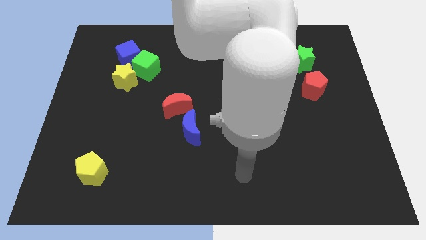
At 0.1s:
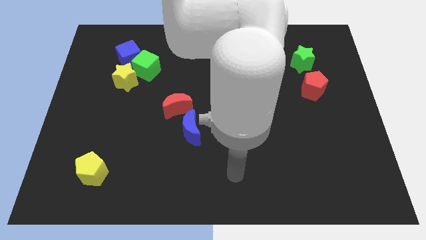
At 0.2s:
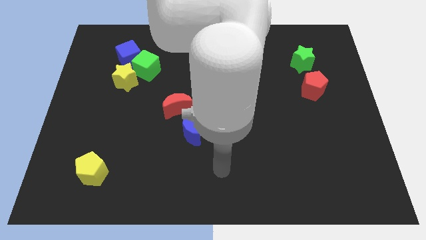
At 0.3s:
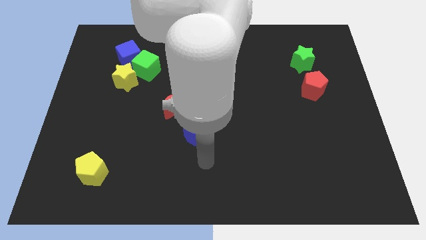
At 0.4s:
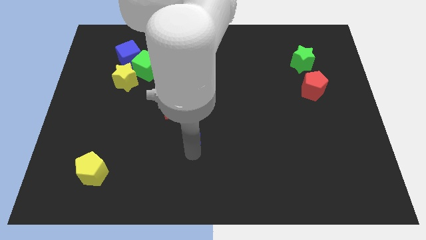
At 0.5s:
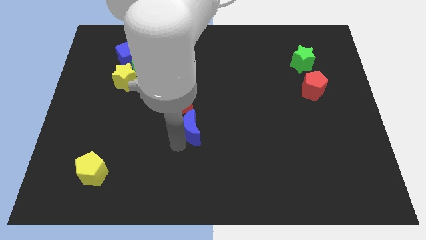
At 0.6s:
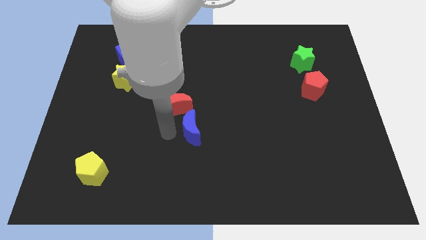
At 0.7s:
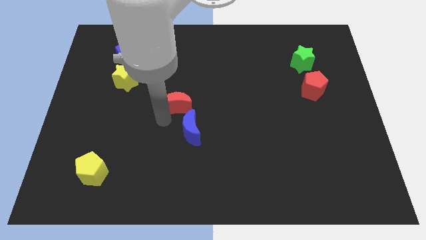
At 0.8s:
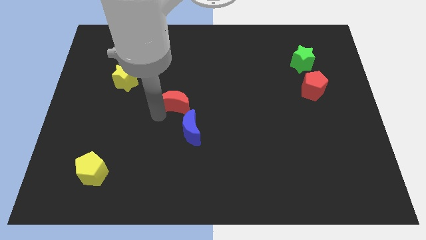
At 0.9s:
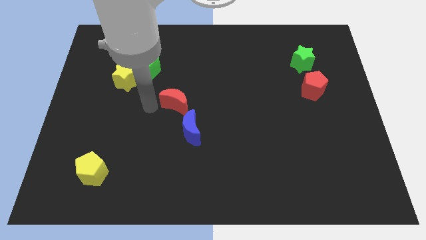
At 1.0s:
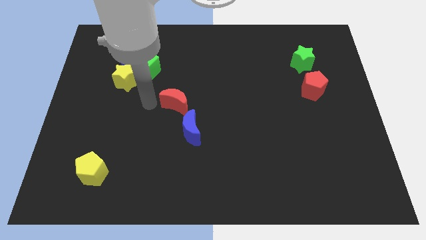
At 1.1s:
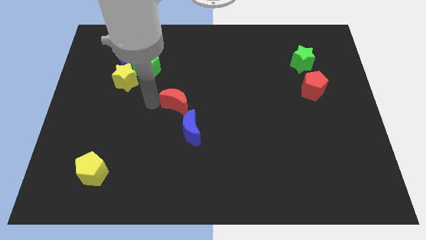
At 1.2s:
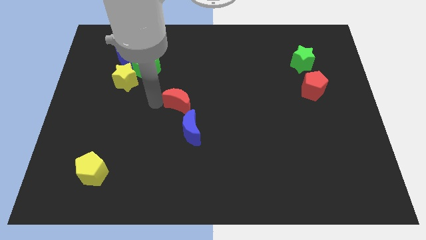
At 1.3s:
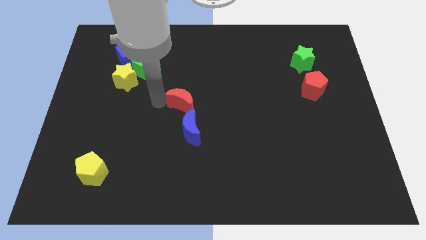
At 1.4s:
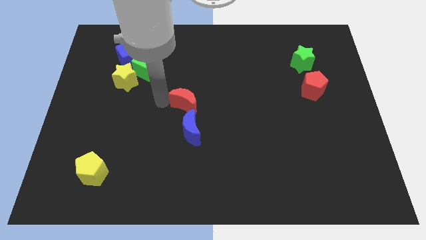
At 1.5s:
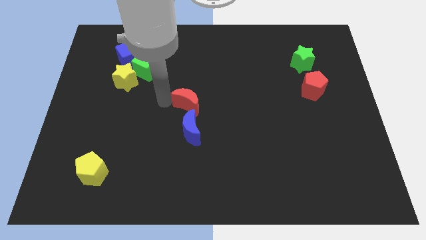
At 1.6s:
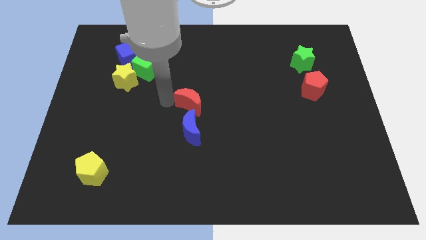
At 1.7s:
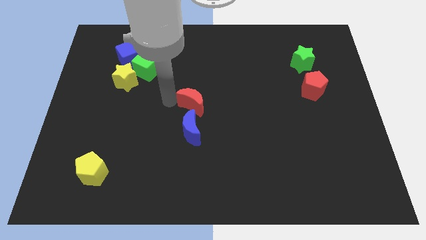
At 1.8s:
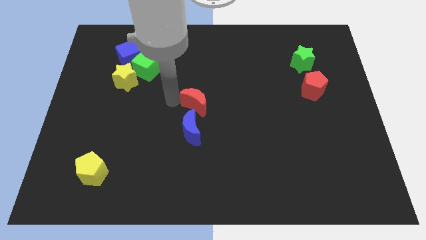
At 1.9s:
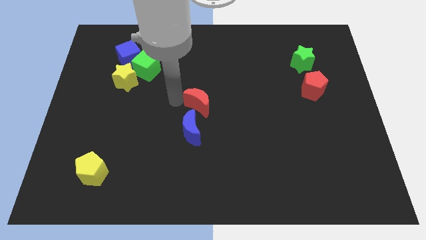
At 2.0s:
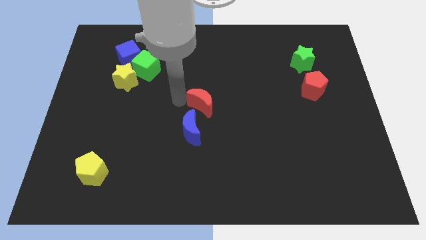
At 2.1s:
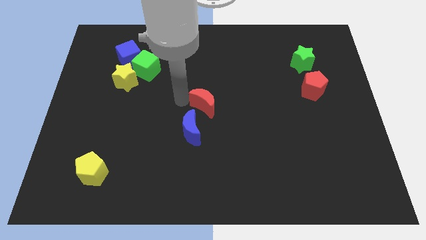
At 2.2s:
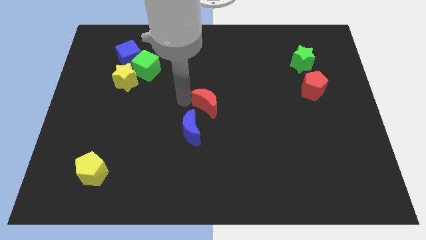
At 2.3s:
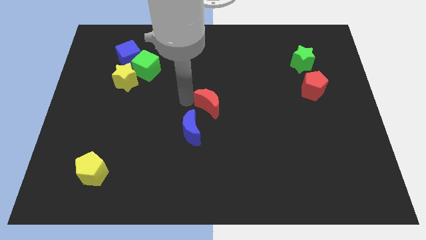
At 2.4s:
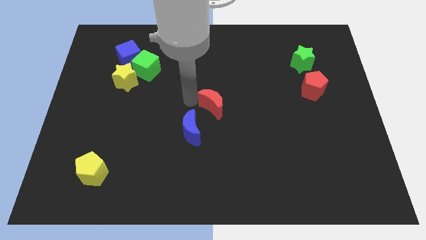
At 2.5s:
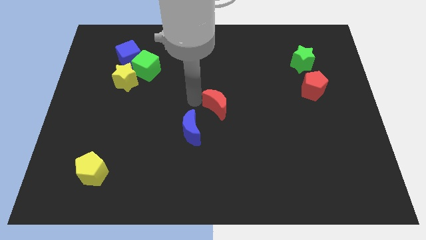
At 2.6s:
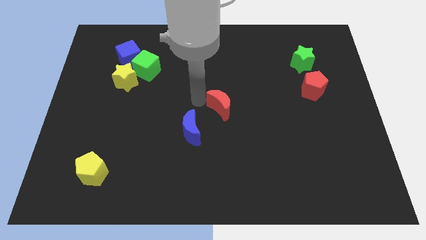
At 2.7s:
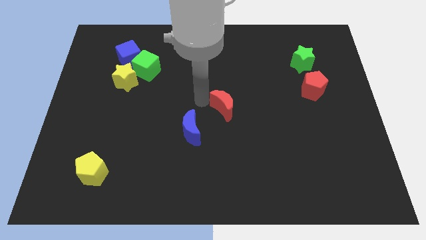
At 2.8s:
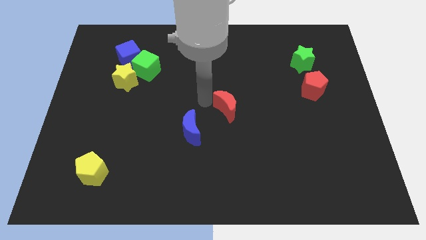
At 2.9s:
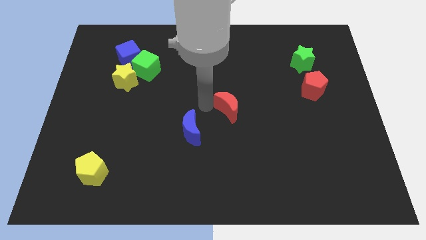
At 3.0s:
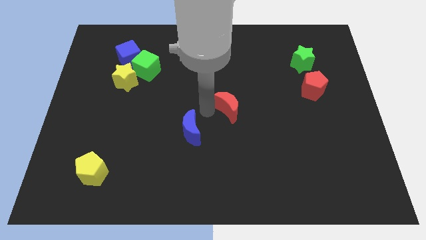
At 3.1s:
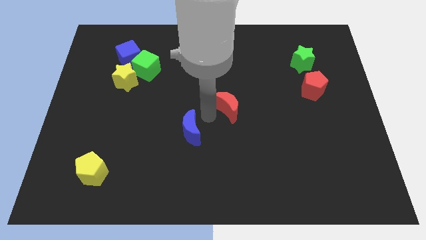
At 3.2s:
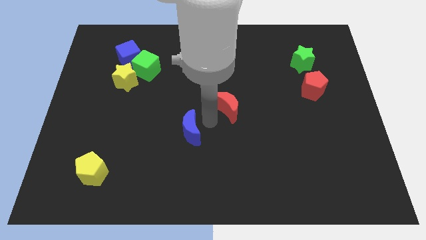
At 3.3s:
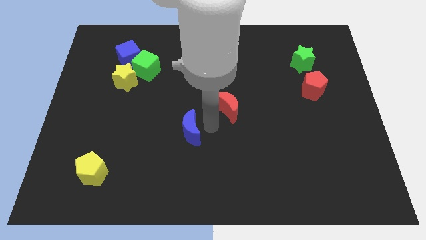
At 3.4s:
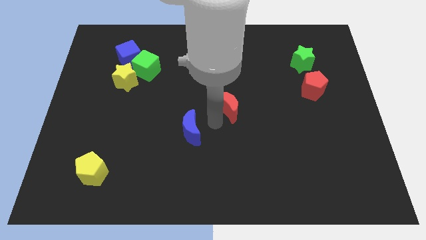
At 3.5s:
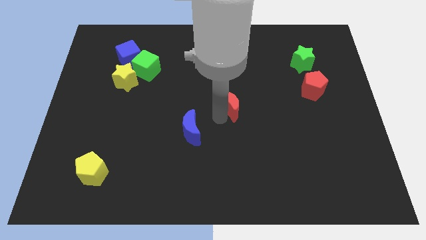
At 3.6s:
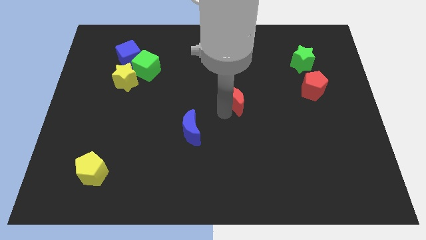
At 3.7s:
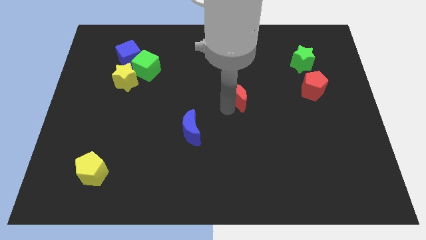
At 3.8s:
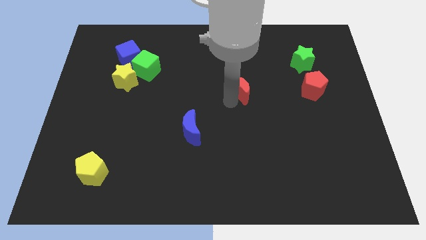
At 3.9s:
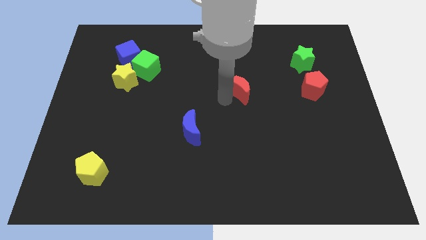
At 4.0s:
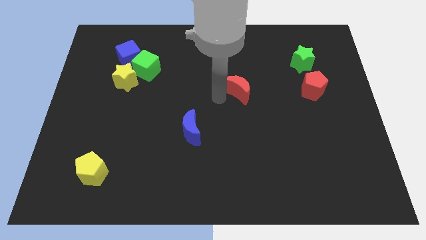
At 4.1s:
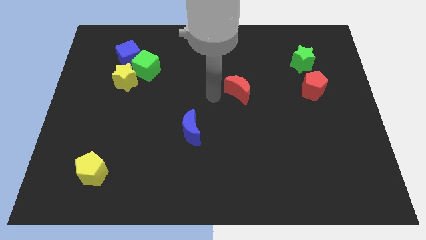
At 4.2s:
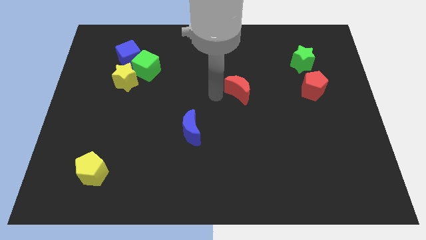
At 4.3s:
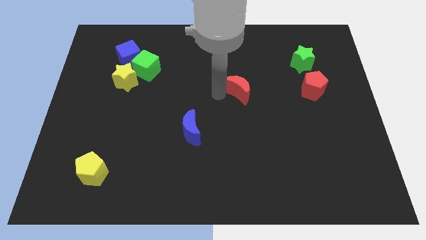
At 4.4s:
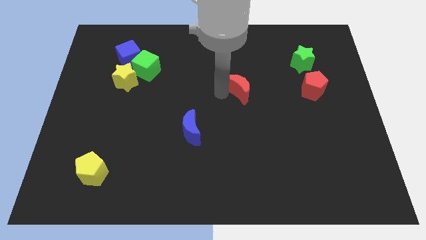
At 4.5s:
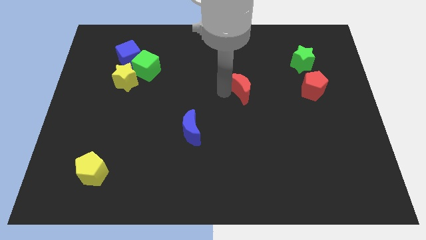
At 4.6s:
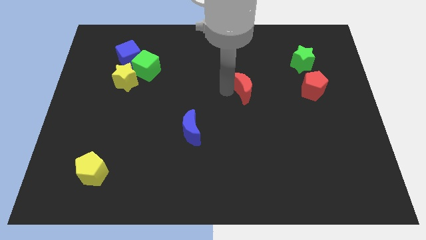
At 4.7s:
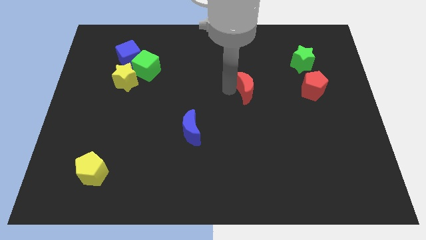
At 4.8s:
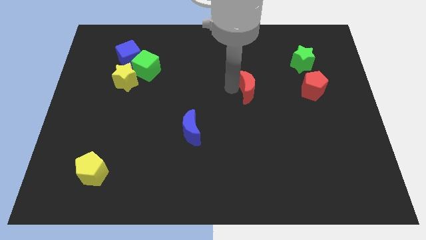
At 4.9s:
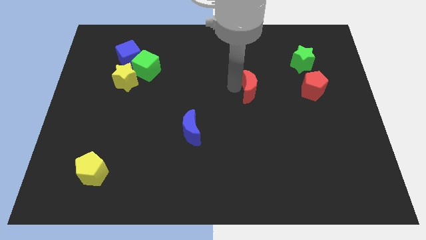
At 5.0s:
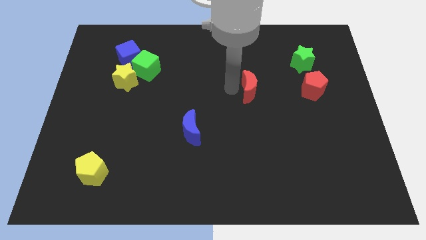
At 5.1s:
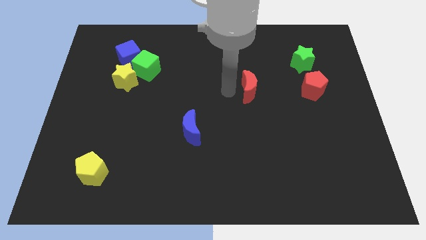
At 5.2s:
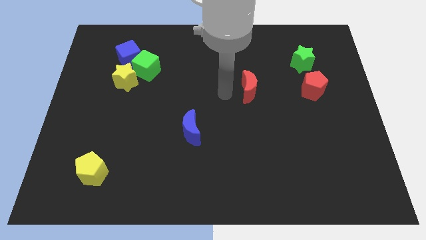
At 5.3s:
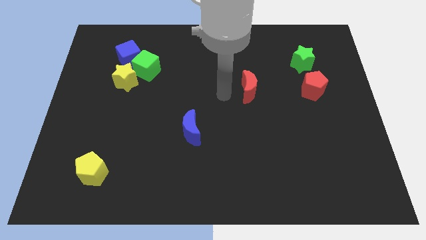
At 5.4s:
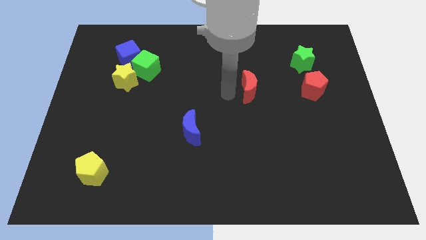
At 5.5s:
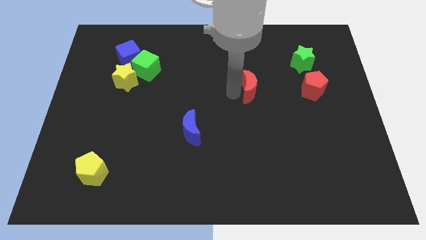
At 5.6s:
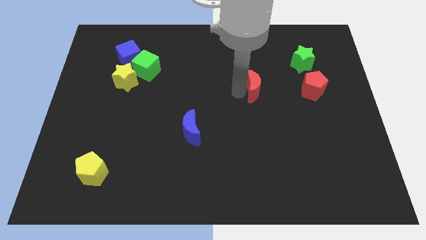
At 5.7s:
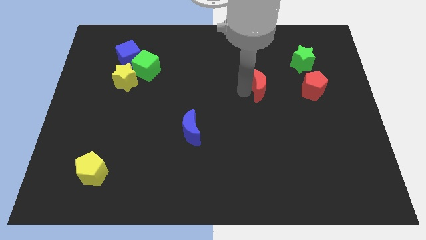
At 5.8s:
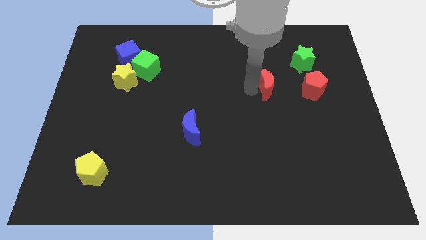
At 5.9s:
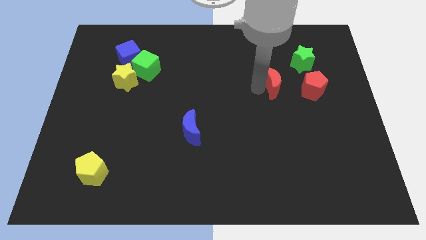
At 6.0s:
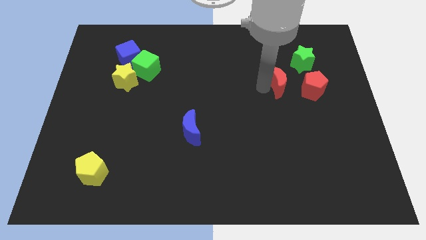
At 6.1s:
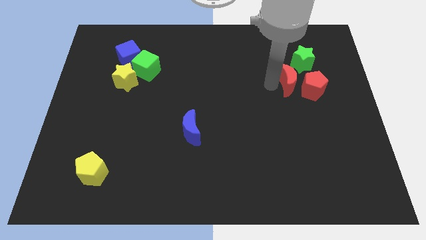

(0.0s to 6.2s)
push the red moon to the red pentagon
